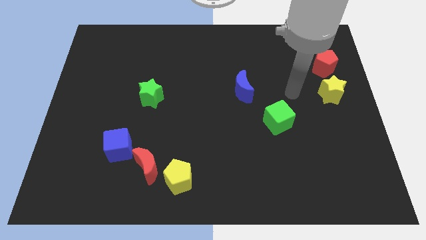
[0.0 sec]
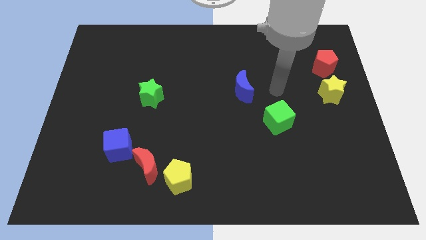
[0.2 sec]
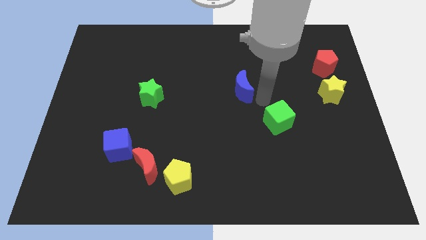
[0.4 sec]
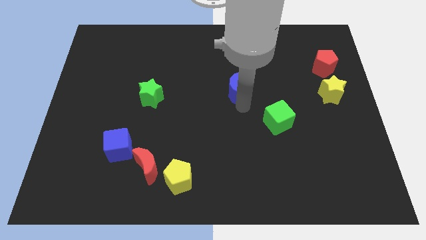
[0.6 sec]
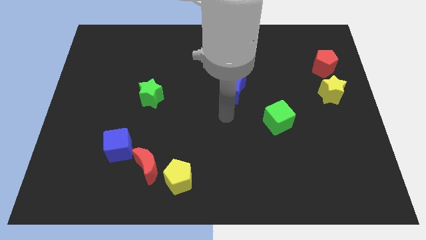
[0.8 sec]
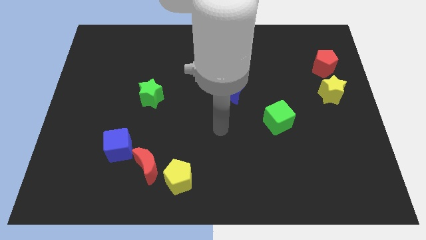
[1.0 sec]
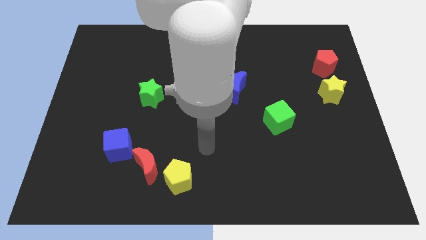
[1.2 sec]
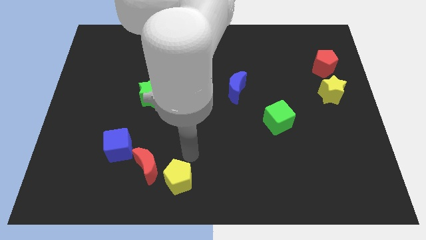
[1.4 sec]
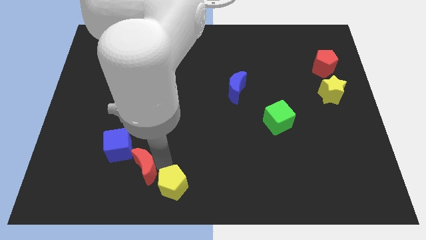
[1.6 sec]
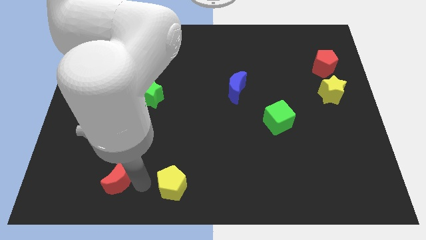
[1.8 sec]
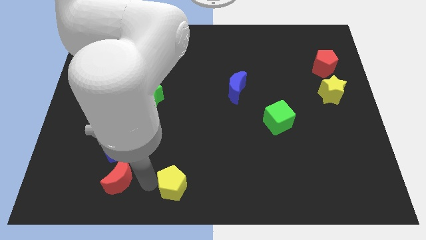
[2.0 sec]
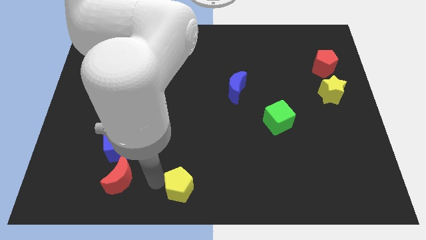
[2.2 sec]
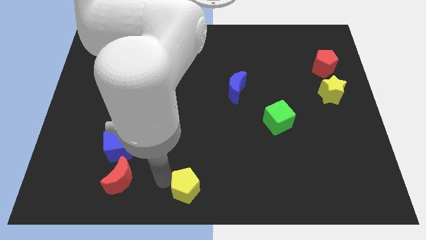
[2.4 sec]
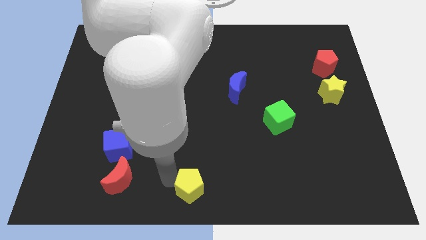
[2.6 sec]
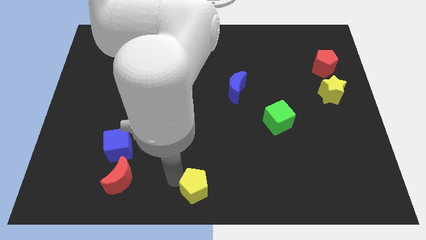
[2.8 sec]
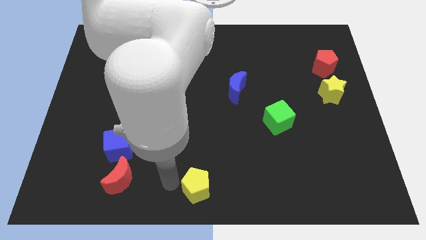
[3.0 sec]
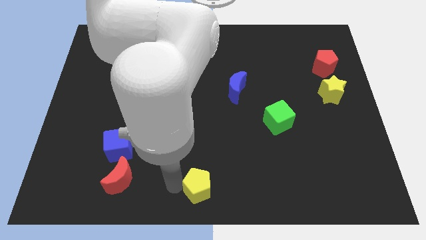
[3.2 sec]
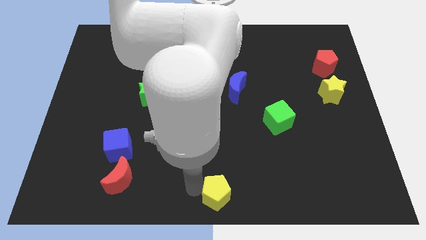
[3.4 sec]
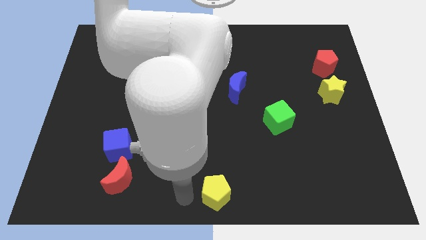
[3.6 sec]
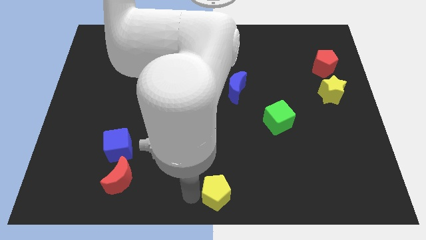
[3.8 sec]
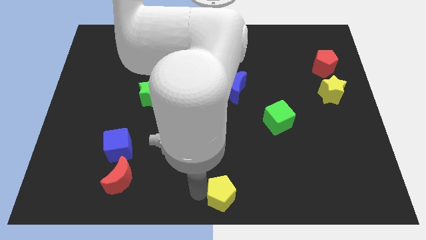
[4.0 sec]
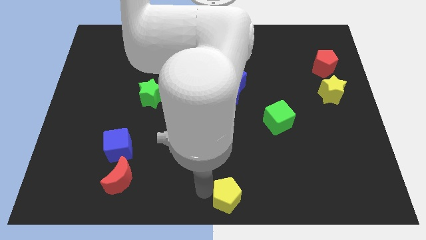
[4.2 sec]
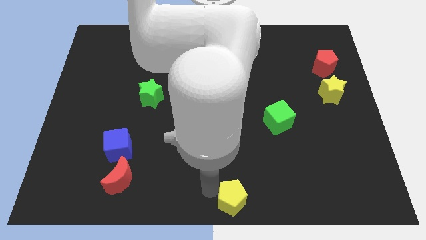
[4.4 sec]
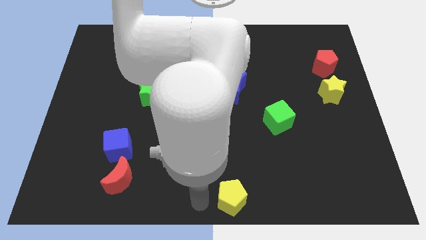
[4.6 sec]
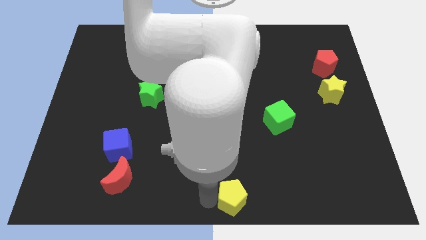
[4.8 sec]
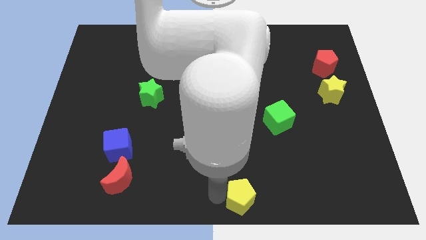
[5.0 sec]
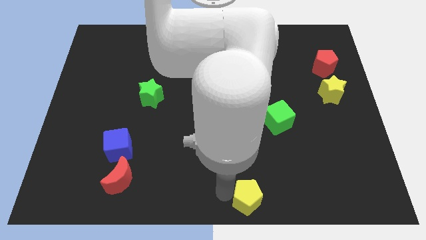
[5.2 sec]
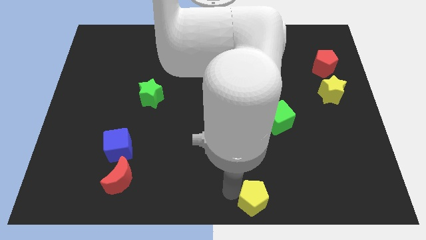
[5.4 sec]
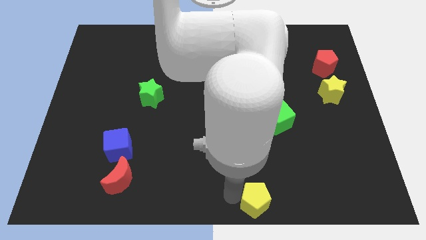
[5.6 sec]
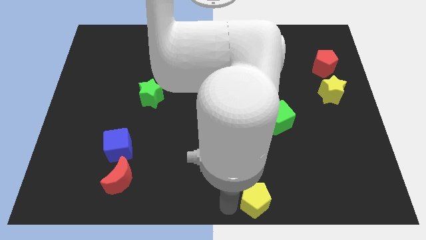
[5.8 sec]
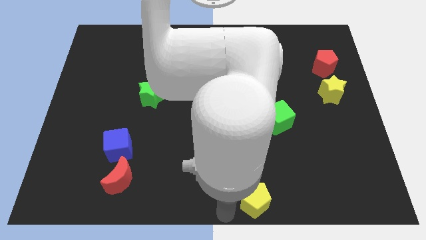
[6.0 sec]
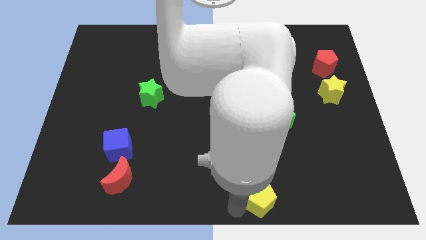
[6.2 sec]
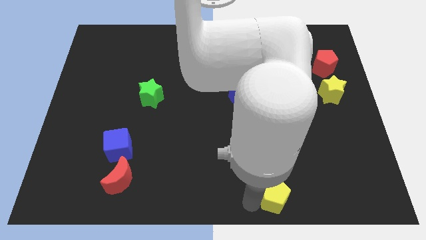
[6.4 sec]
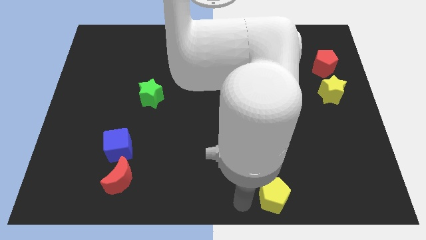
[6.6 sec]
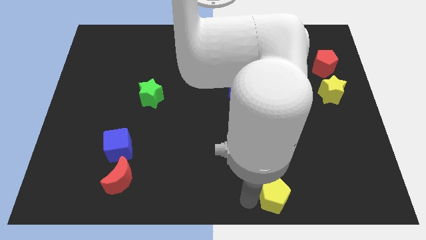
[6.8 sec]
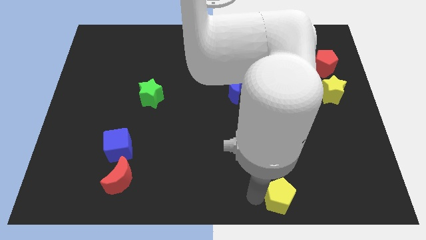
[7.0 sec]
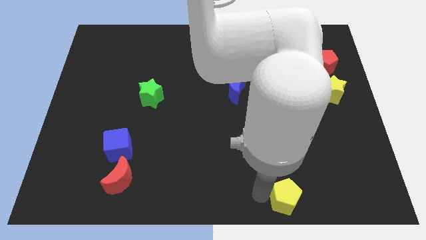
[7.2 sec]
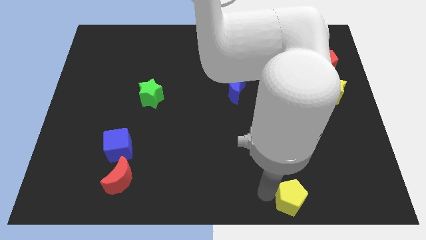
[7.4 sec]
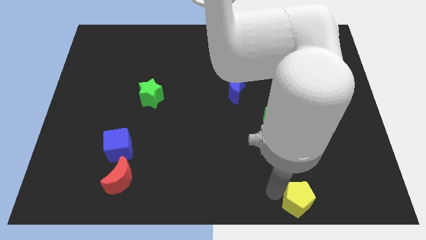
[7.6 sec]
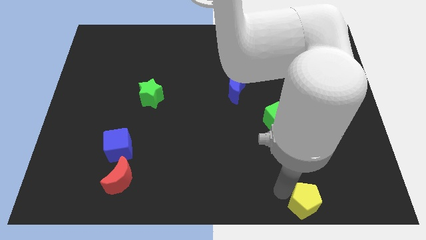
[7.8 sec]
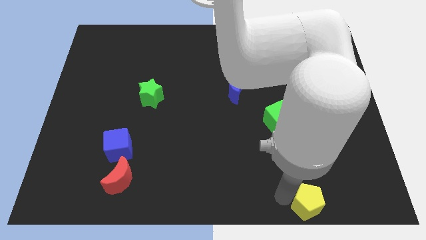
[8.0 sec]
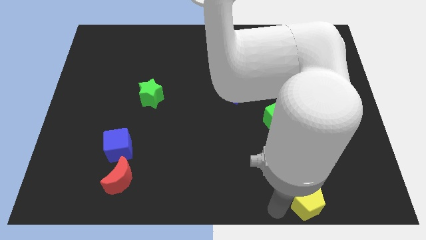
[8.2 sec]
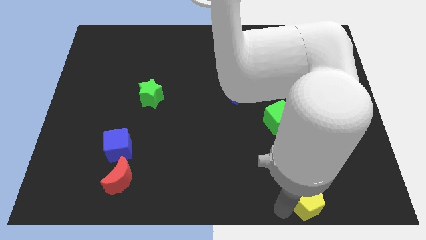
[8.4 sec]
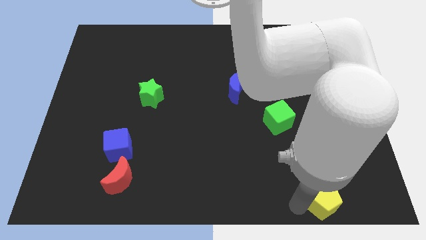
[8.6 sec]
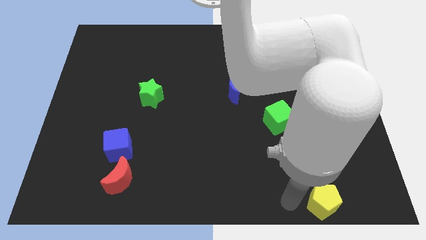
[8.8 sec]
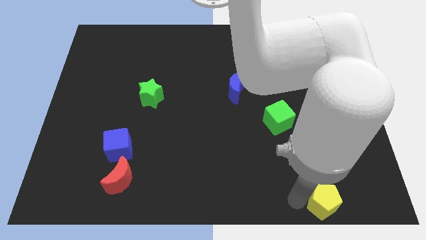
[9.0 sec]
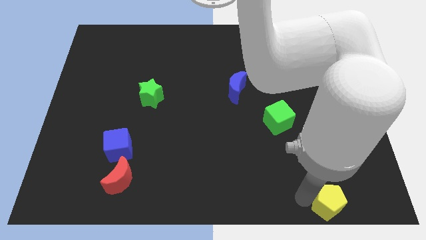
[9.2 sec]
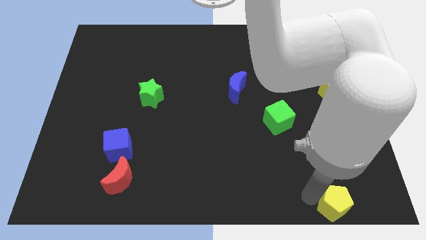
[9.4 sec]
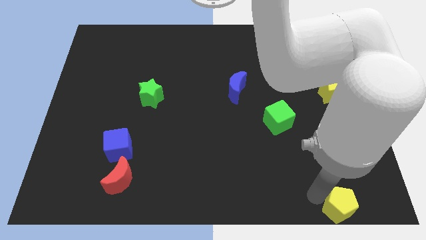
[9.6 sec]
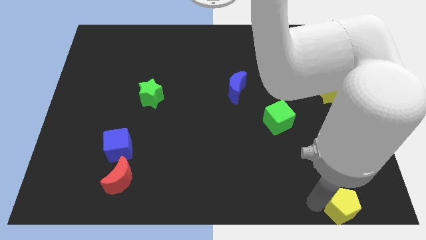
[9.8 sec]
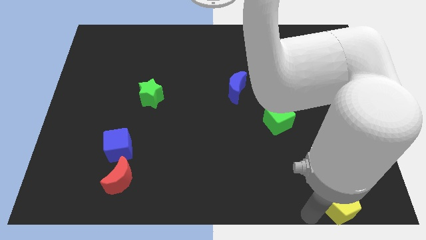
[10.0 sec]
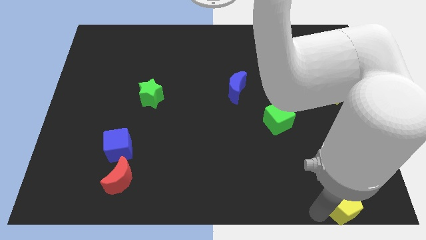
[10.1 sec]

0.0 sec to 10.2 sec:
put the yellow pentagon to the bottom right of the board

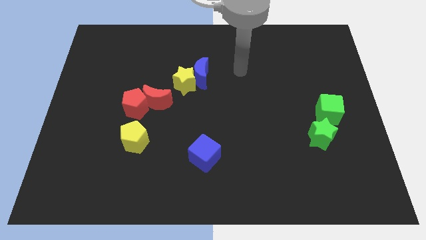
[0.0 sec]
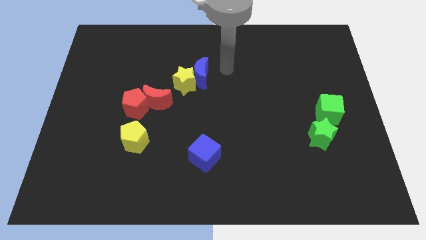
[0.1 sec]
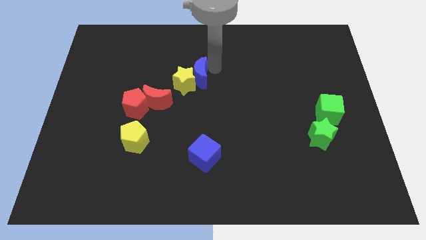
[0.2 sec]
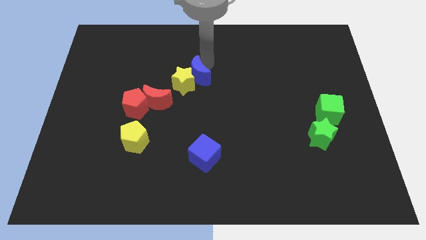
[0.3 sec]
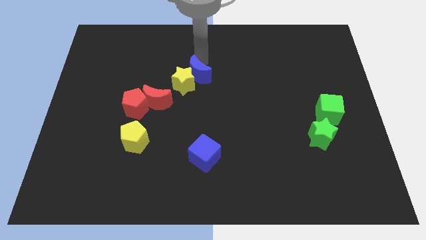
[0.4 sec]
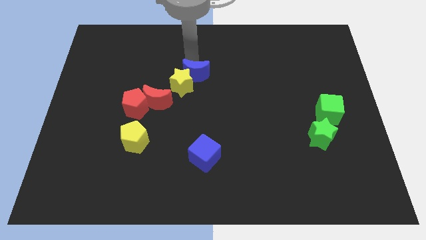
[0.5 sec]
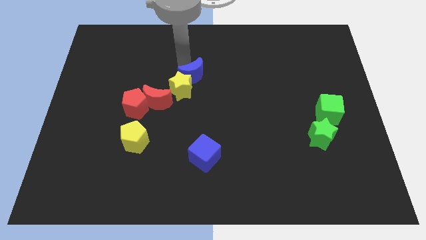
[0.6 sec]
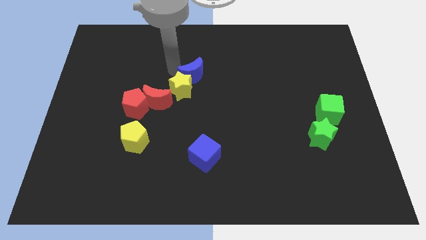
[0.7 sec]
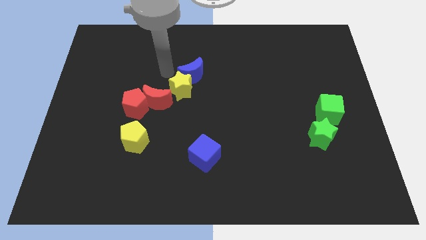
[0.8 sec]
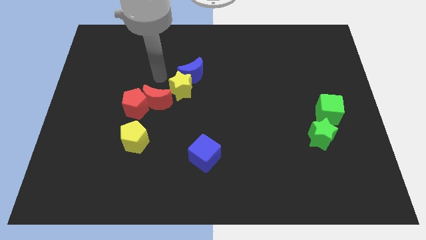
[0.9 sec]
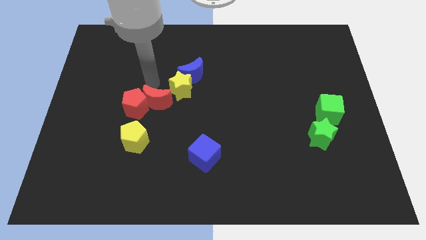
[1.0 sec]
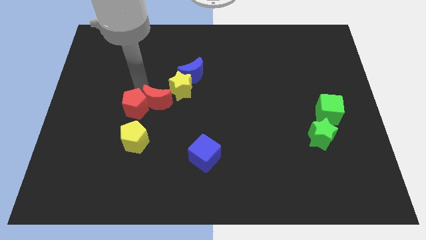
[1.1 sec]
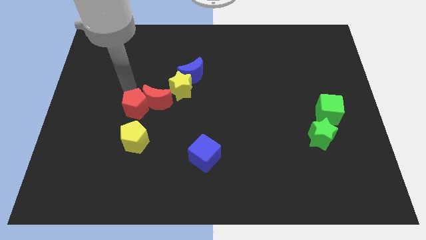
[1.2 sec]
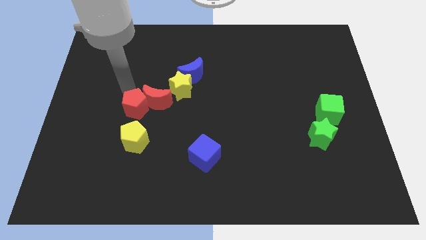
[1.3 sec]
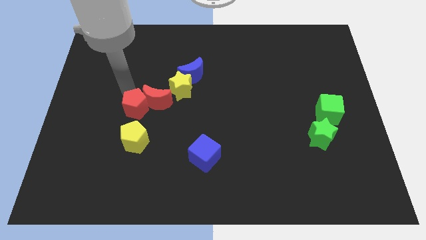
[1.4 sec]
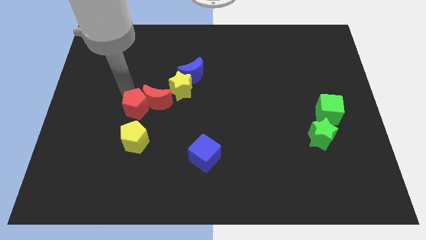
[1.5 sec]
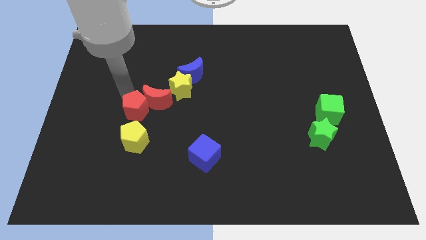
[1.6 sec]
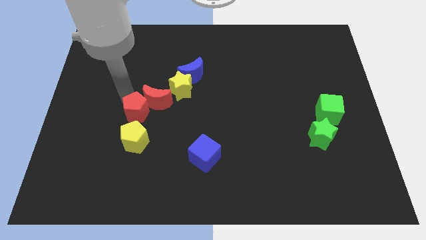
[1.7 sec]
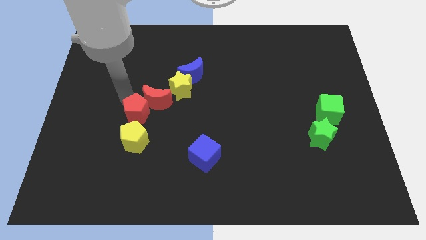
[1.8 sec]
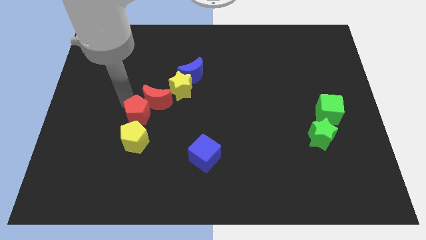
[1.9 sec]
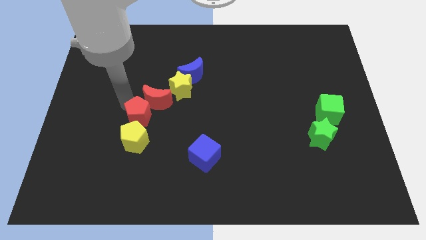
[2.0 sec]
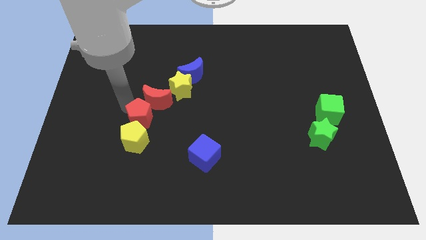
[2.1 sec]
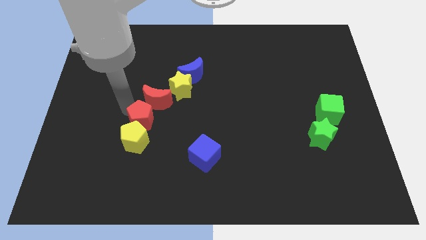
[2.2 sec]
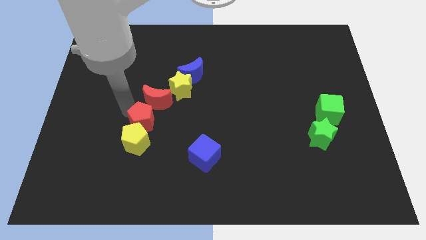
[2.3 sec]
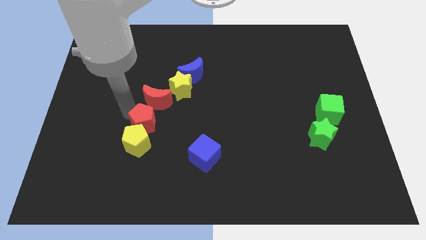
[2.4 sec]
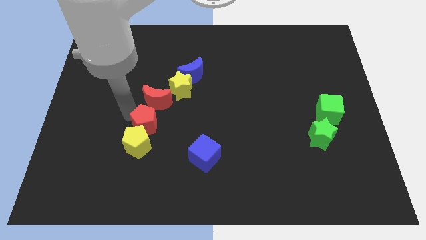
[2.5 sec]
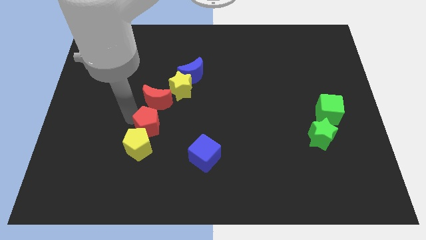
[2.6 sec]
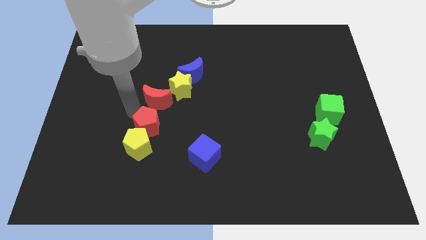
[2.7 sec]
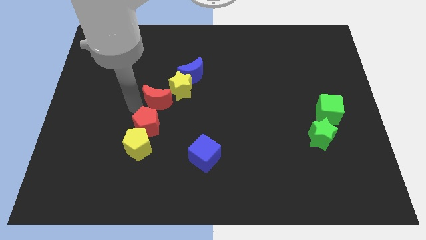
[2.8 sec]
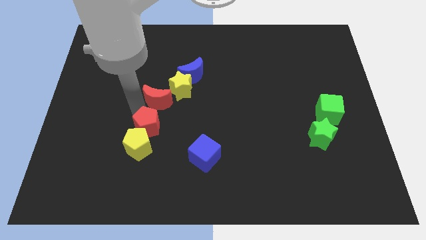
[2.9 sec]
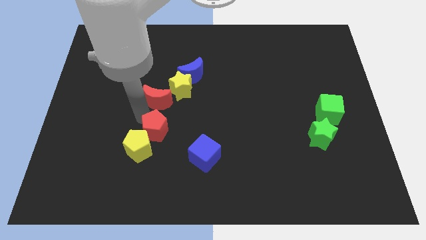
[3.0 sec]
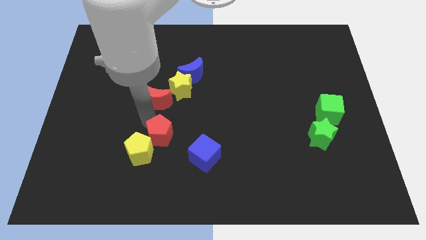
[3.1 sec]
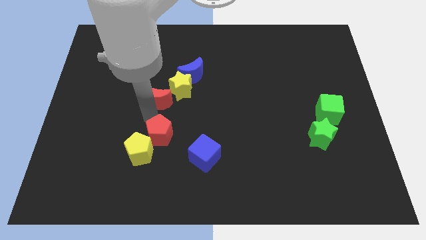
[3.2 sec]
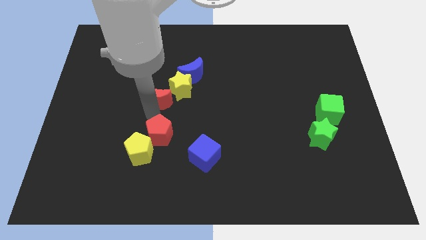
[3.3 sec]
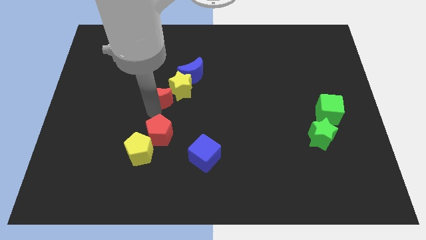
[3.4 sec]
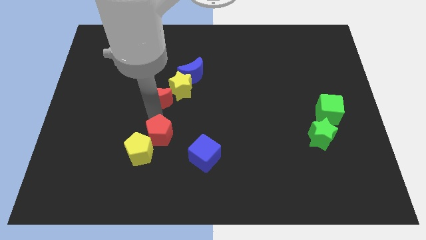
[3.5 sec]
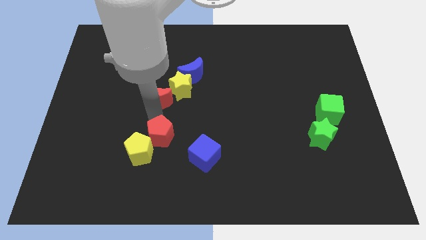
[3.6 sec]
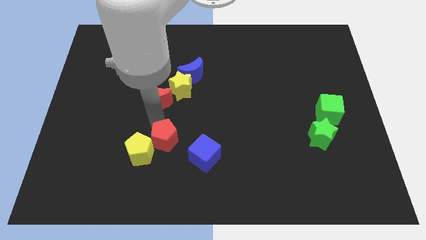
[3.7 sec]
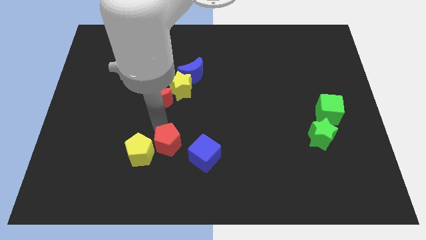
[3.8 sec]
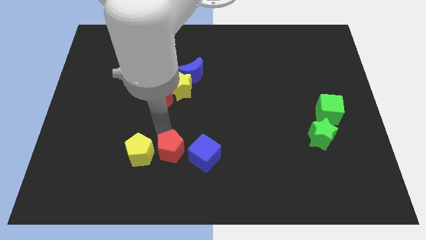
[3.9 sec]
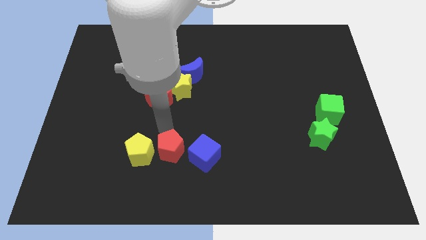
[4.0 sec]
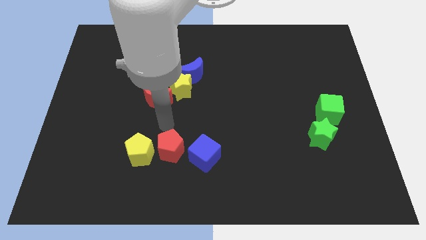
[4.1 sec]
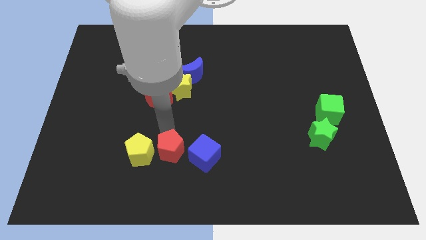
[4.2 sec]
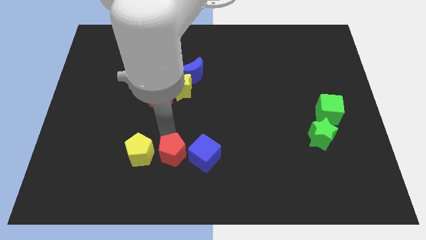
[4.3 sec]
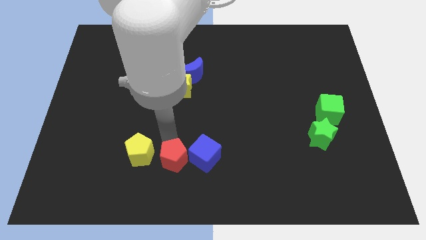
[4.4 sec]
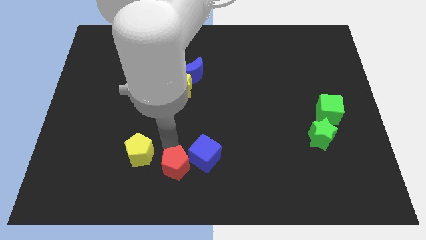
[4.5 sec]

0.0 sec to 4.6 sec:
push the red pentagon to the bottom side
